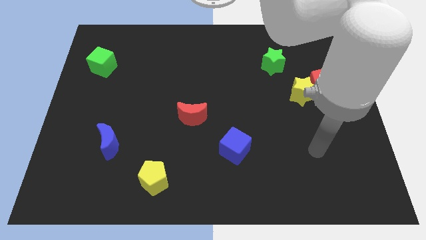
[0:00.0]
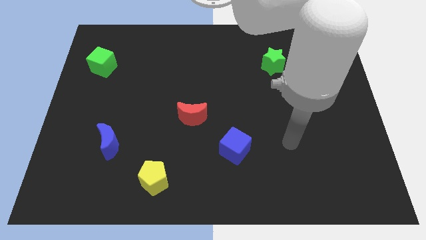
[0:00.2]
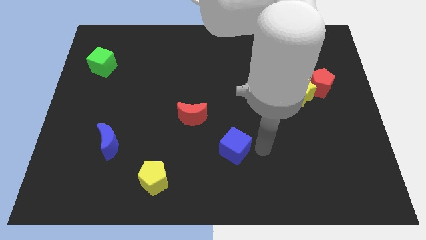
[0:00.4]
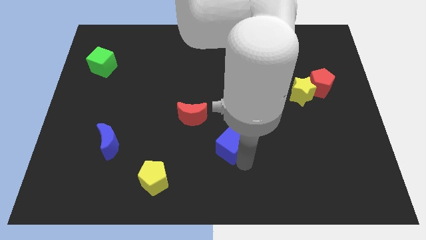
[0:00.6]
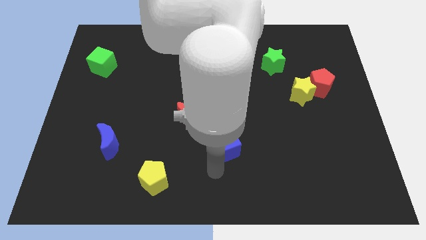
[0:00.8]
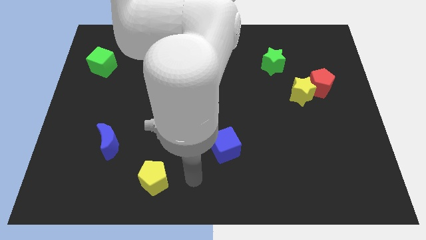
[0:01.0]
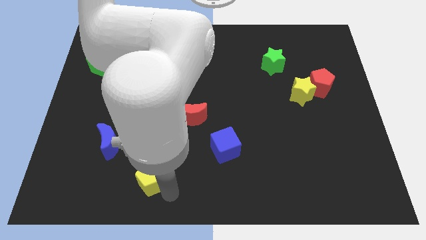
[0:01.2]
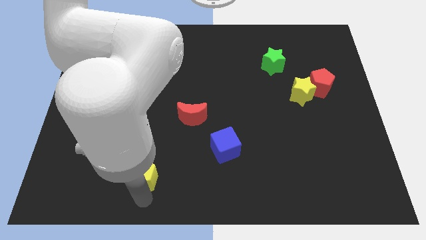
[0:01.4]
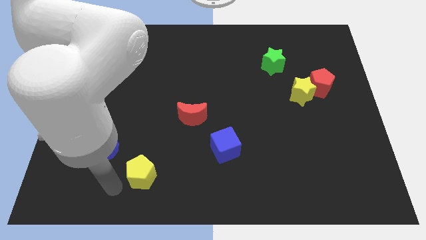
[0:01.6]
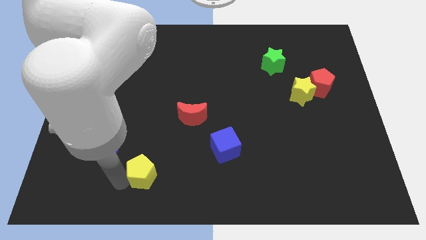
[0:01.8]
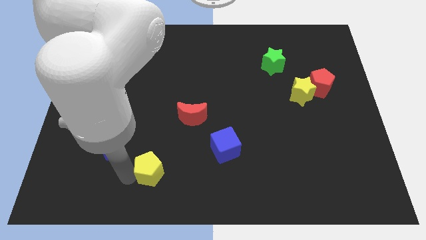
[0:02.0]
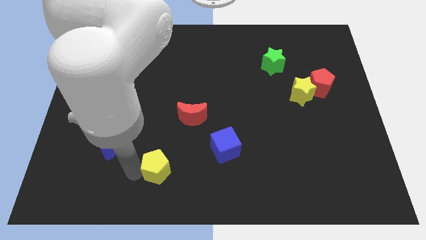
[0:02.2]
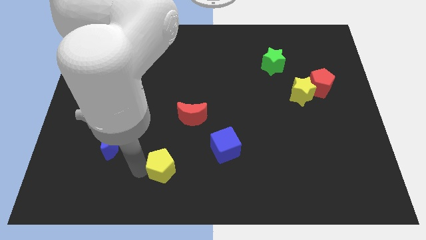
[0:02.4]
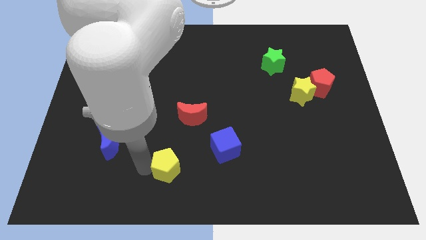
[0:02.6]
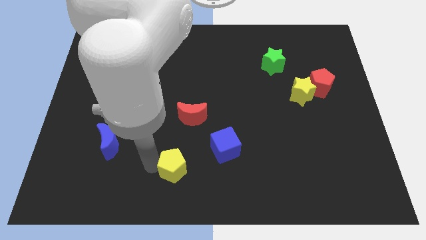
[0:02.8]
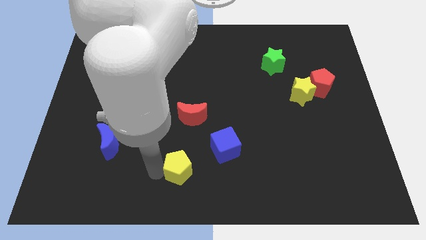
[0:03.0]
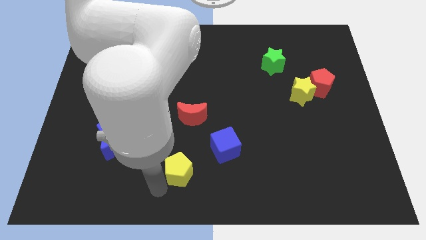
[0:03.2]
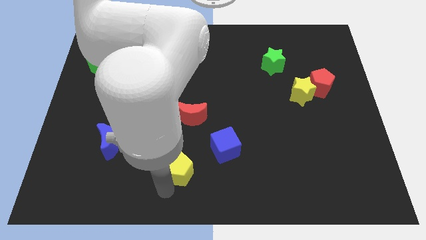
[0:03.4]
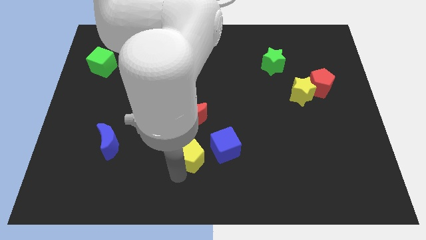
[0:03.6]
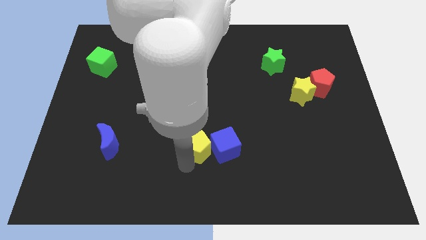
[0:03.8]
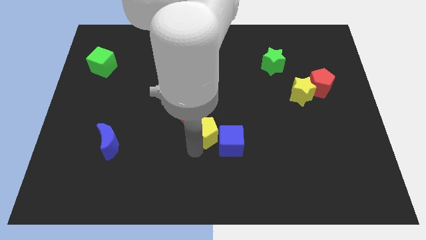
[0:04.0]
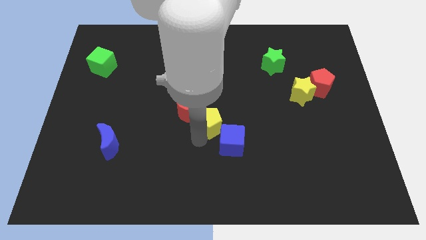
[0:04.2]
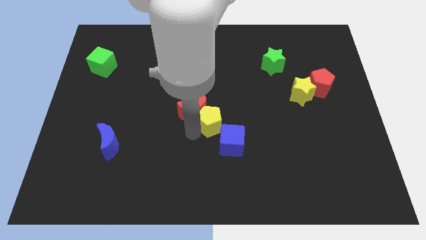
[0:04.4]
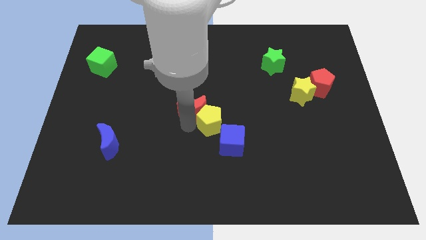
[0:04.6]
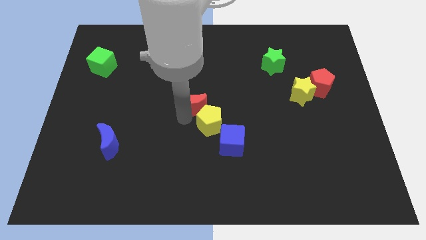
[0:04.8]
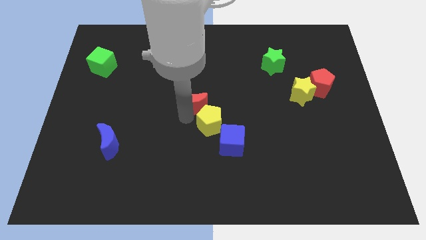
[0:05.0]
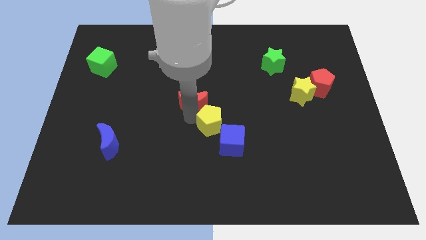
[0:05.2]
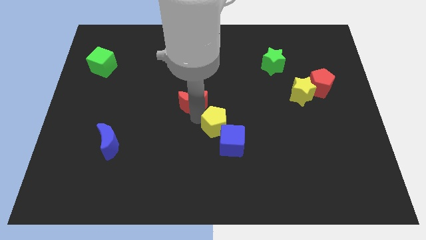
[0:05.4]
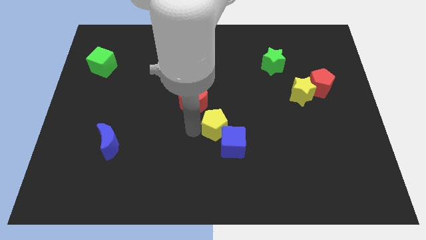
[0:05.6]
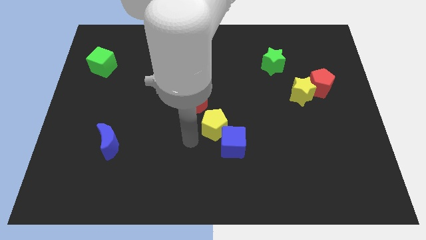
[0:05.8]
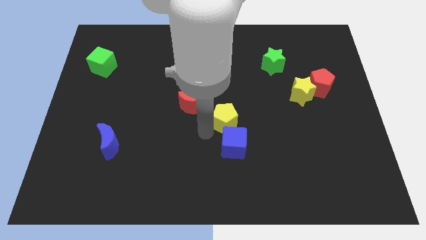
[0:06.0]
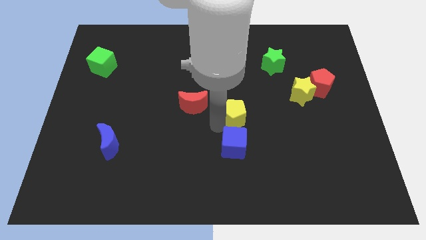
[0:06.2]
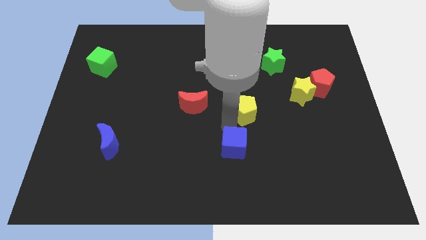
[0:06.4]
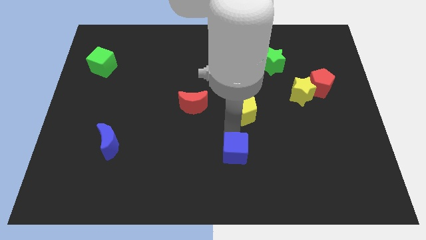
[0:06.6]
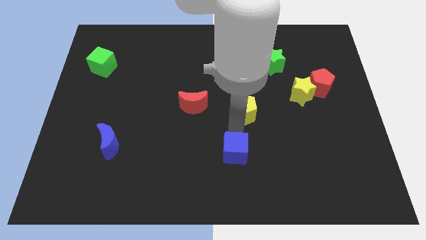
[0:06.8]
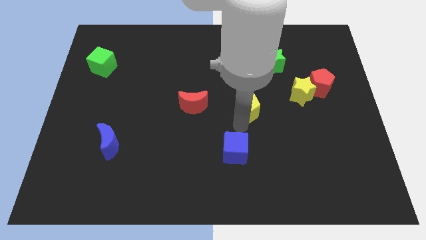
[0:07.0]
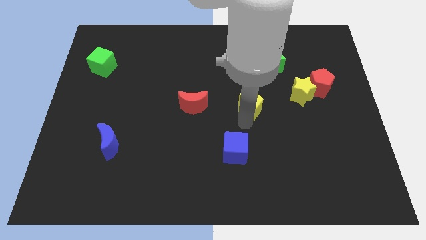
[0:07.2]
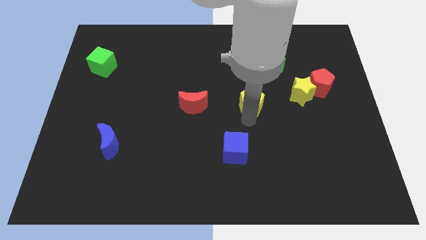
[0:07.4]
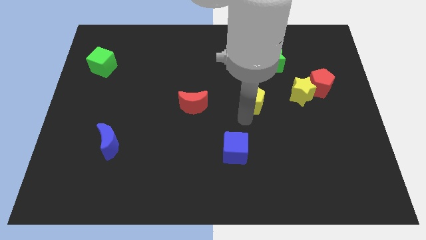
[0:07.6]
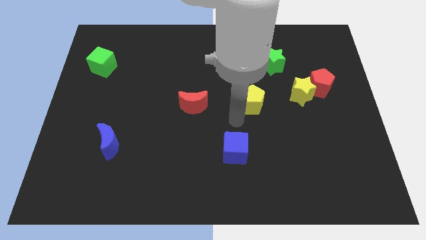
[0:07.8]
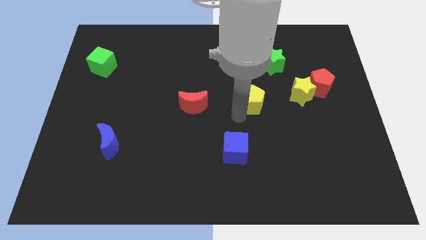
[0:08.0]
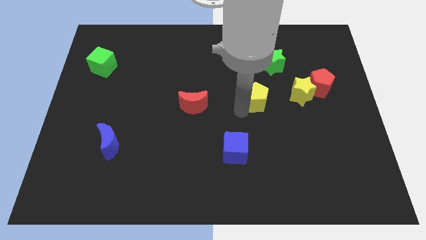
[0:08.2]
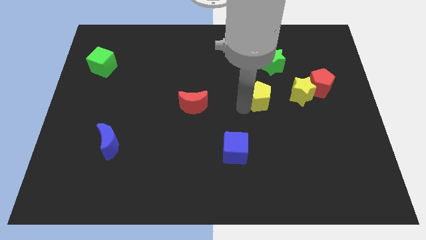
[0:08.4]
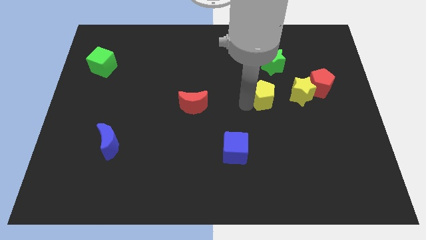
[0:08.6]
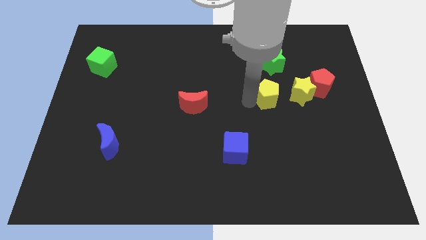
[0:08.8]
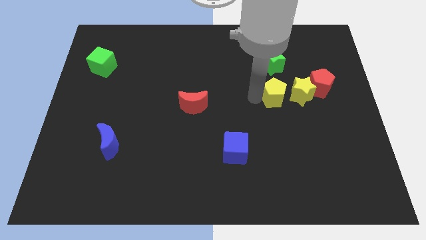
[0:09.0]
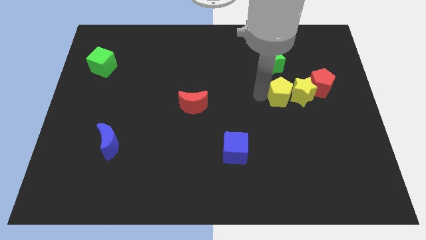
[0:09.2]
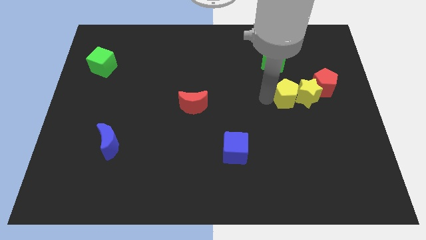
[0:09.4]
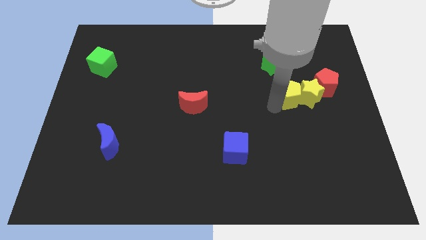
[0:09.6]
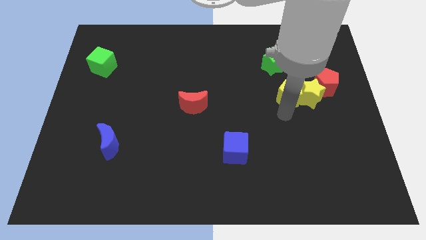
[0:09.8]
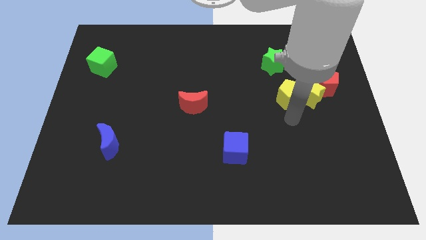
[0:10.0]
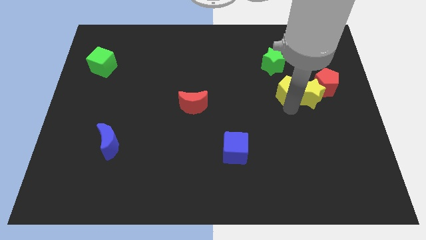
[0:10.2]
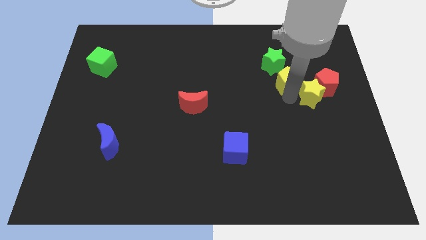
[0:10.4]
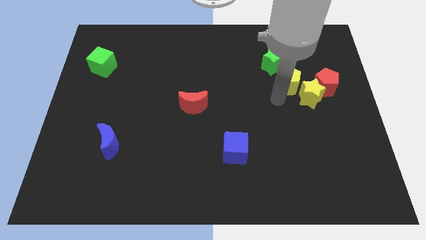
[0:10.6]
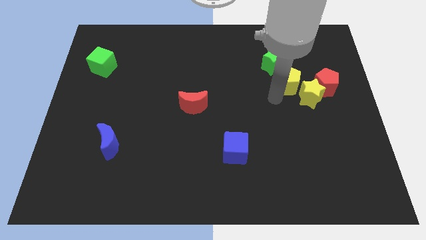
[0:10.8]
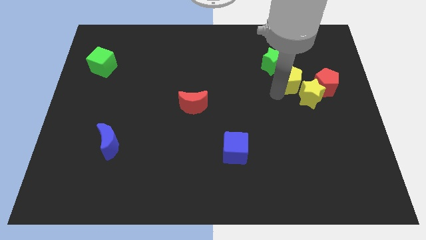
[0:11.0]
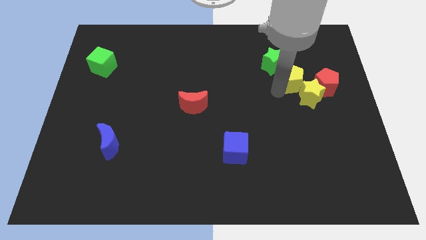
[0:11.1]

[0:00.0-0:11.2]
move the yellow pentagon diagonally up and to the left of the red pentagon

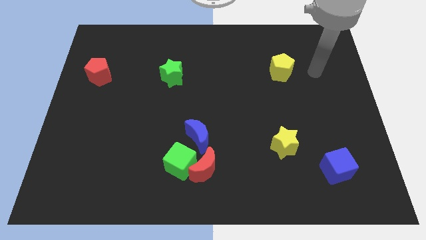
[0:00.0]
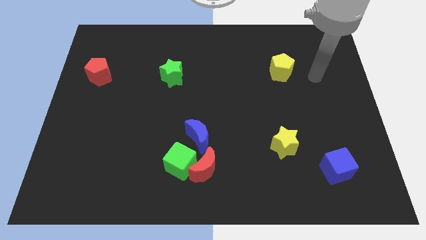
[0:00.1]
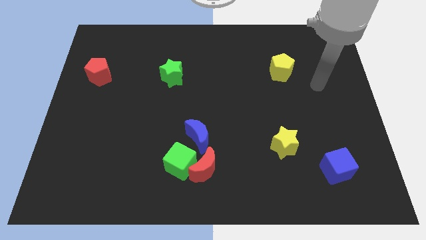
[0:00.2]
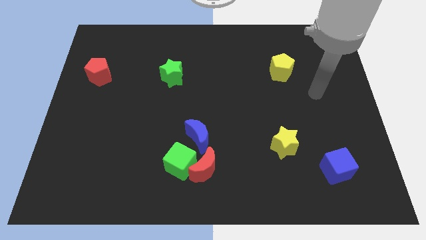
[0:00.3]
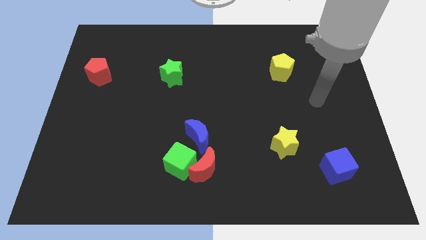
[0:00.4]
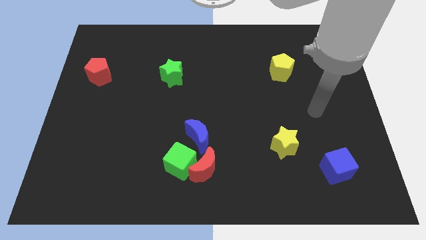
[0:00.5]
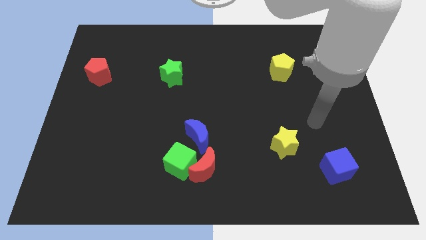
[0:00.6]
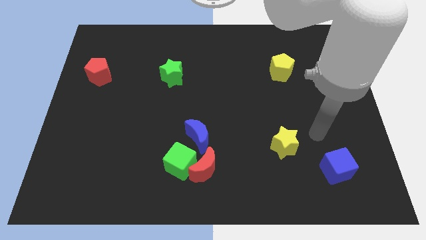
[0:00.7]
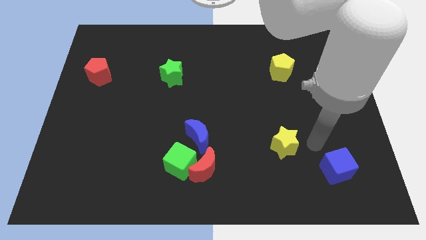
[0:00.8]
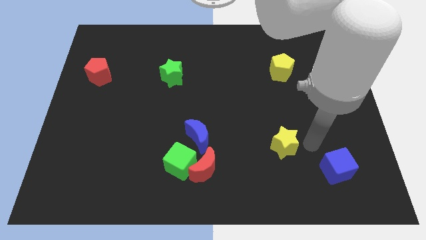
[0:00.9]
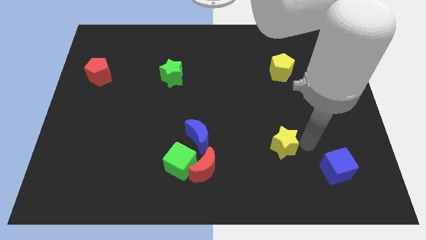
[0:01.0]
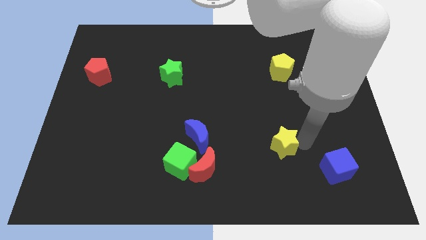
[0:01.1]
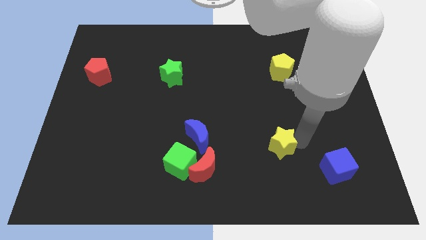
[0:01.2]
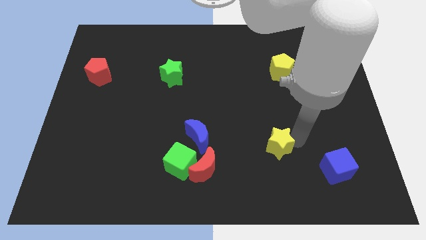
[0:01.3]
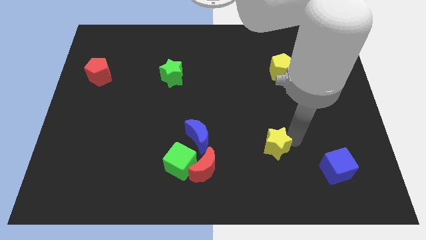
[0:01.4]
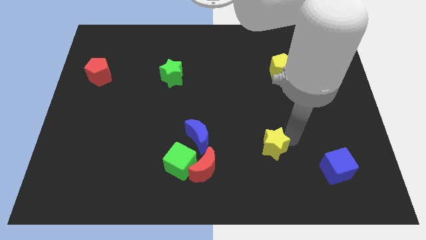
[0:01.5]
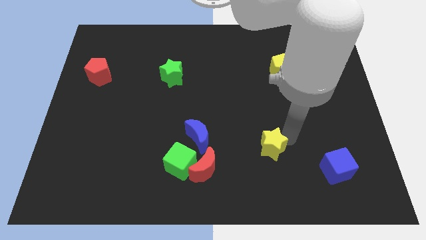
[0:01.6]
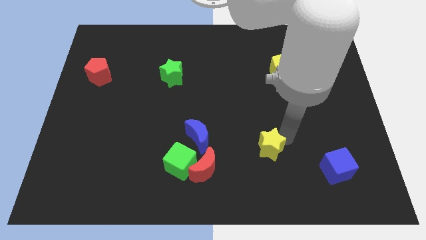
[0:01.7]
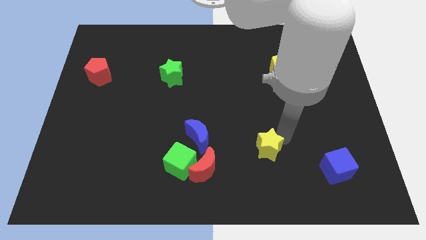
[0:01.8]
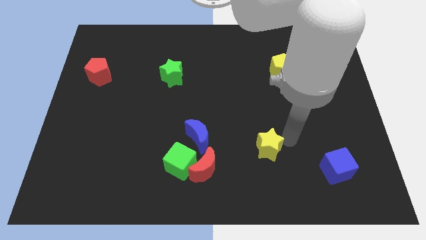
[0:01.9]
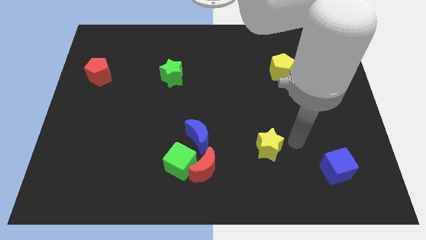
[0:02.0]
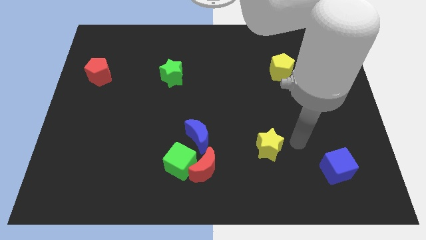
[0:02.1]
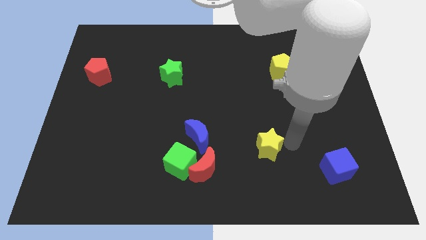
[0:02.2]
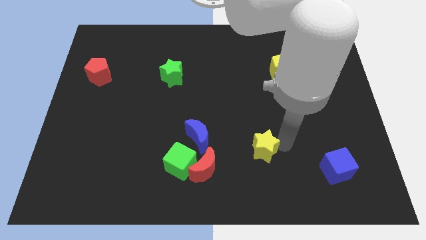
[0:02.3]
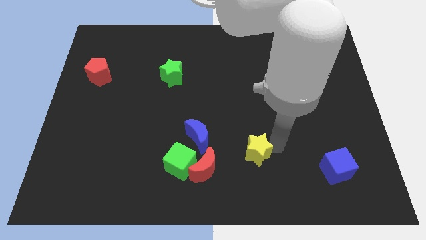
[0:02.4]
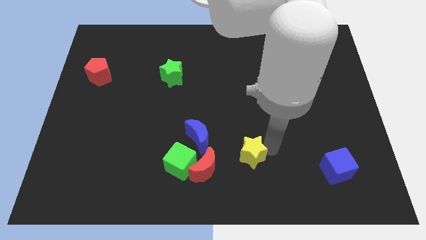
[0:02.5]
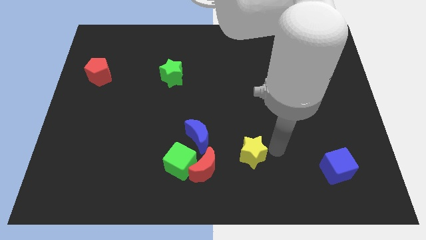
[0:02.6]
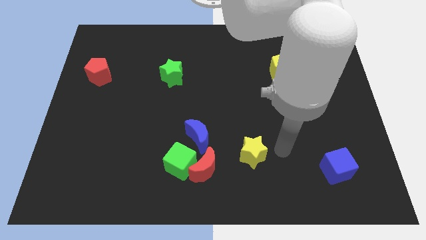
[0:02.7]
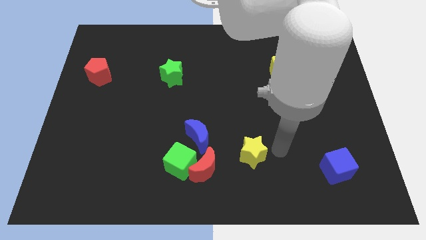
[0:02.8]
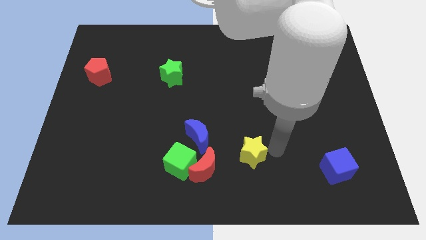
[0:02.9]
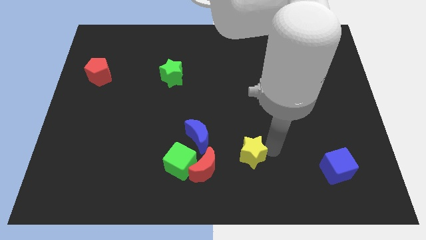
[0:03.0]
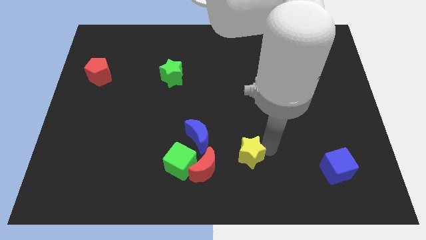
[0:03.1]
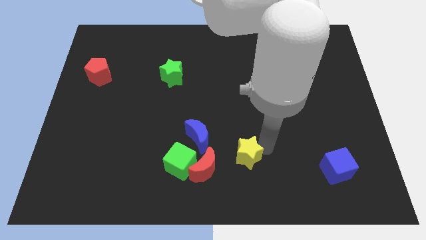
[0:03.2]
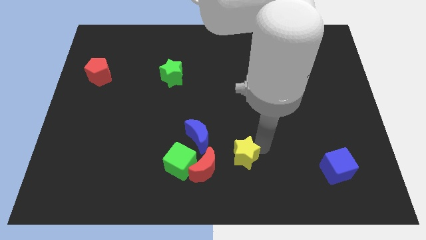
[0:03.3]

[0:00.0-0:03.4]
put the yellow star to the bottom right of the blue moon
